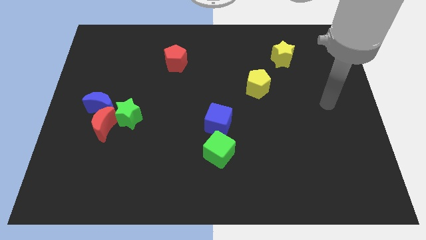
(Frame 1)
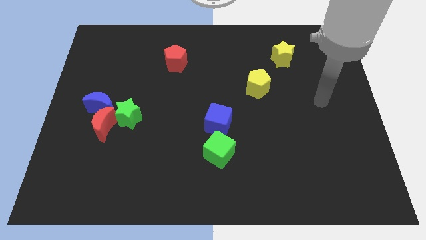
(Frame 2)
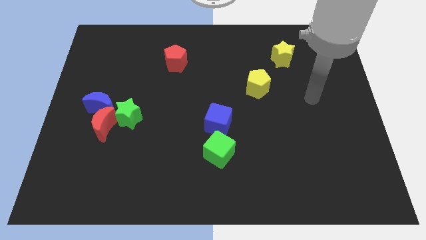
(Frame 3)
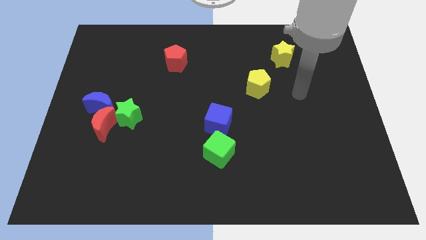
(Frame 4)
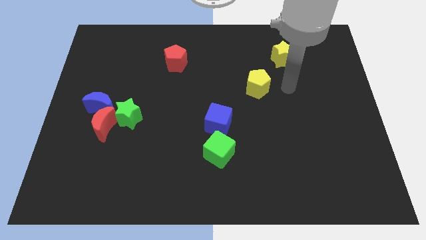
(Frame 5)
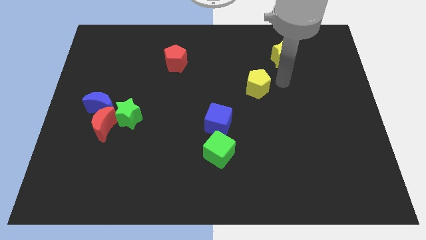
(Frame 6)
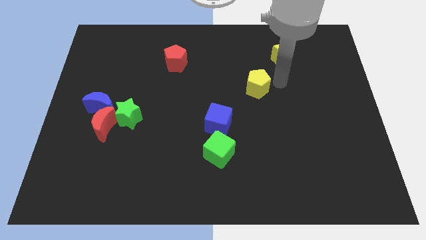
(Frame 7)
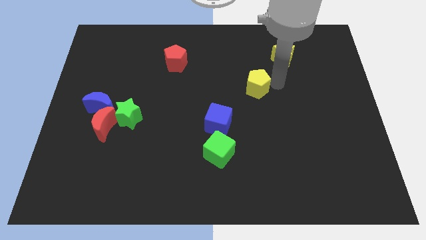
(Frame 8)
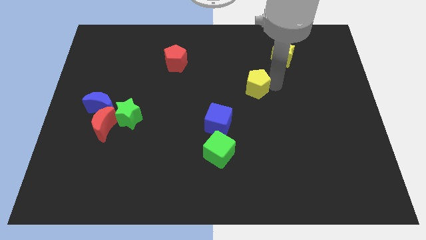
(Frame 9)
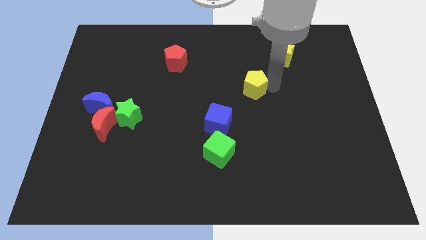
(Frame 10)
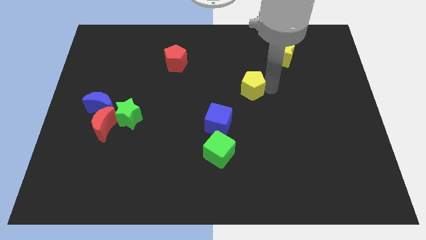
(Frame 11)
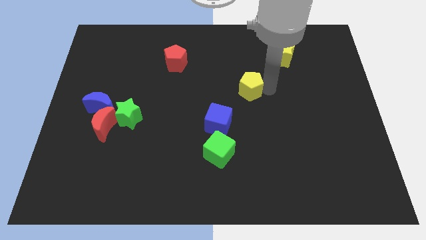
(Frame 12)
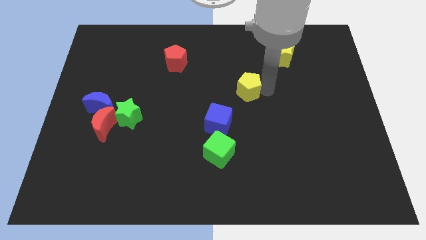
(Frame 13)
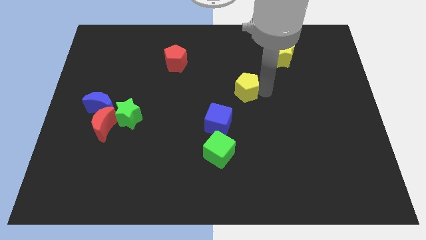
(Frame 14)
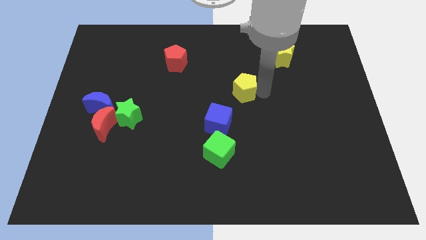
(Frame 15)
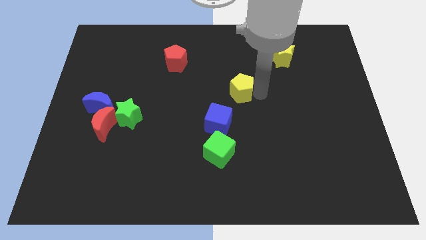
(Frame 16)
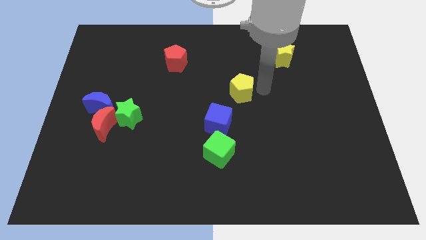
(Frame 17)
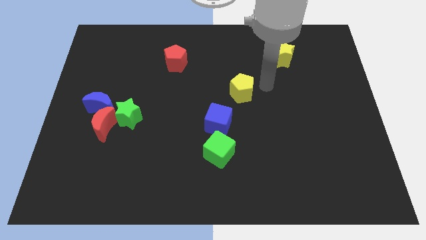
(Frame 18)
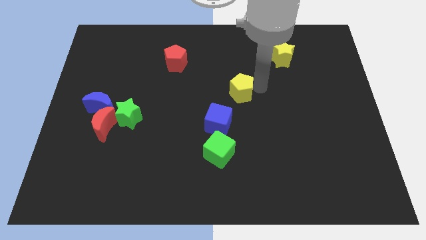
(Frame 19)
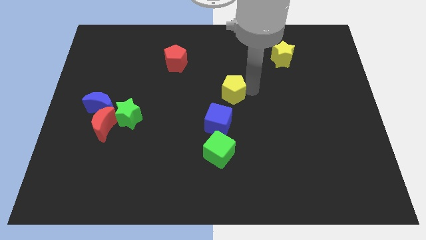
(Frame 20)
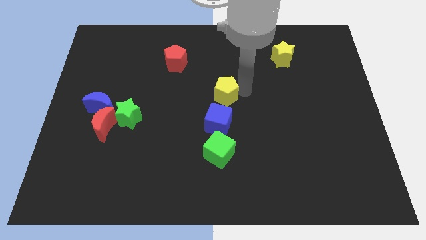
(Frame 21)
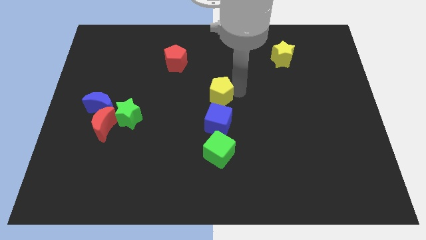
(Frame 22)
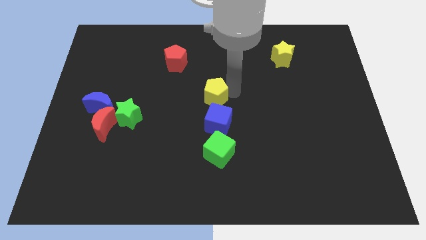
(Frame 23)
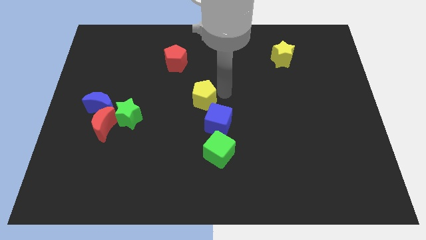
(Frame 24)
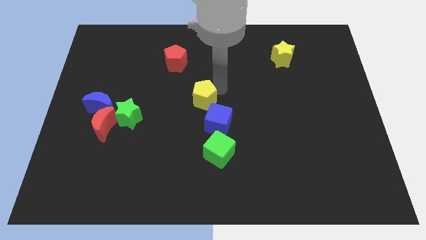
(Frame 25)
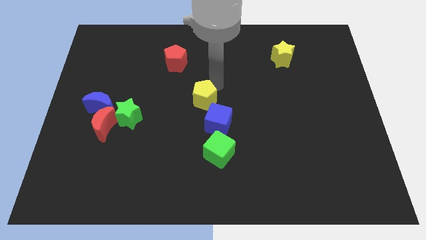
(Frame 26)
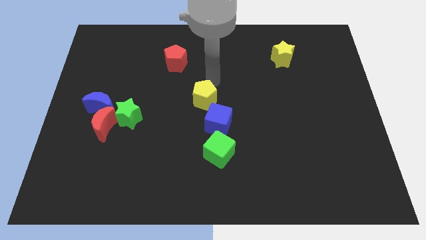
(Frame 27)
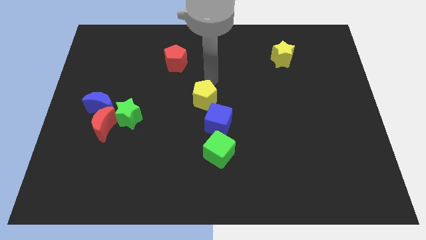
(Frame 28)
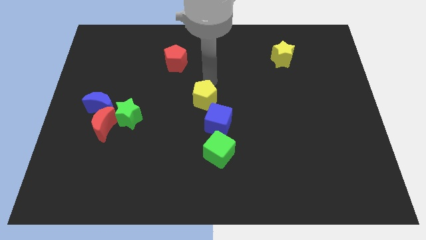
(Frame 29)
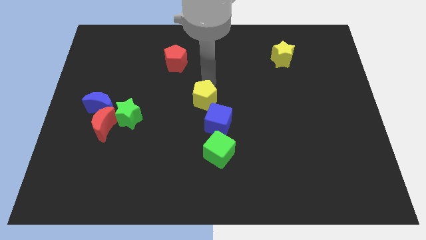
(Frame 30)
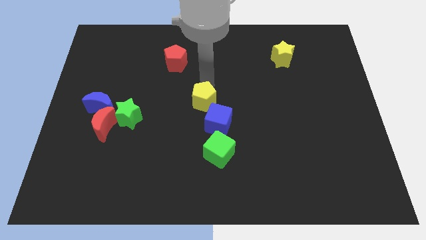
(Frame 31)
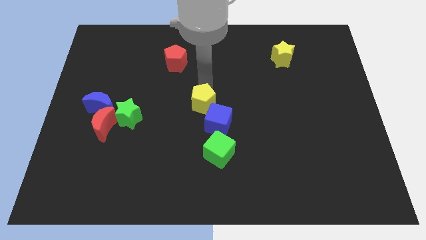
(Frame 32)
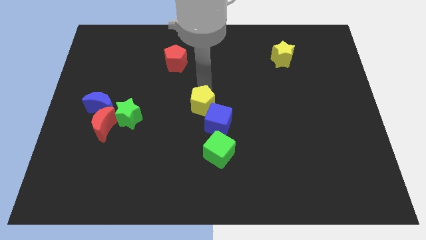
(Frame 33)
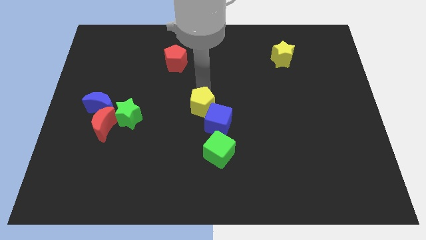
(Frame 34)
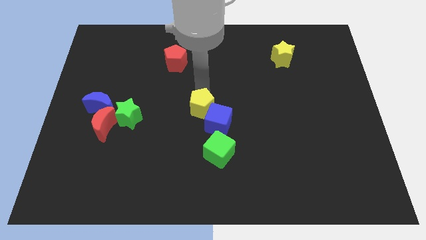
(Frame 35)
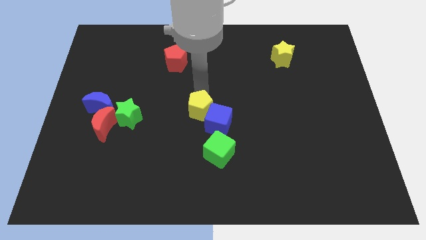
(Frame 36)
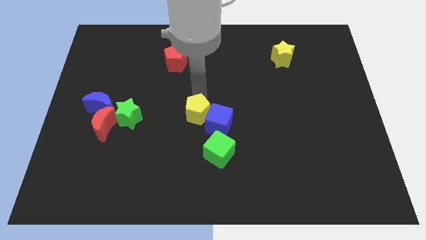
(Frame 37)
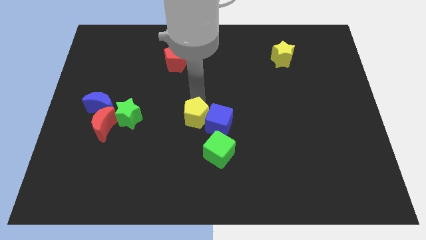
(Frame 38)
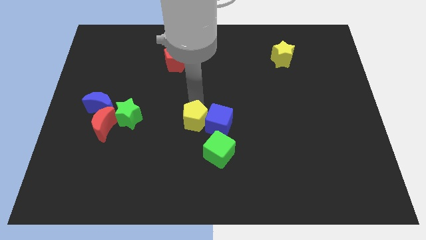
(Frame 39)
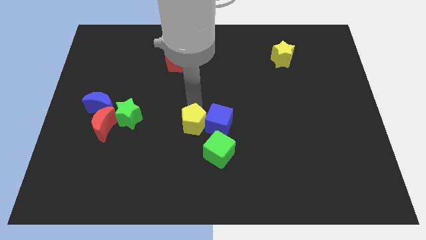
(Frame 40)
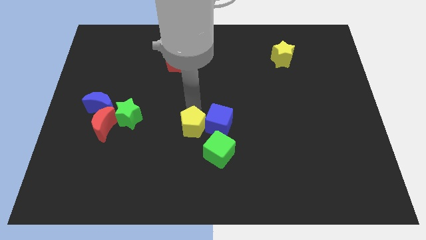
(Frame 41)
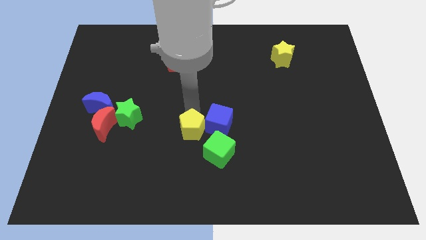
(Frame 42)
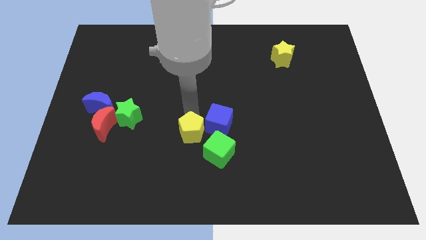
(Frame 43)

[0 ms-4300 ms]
push the yellow pentagon down and left diagonally

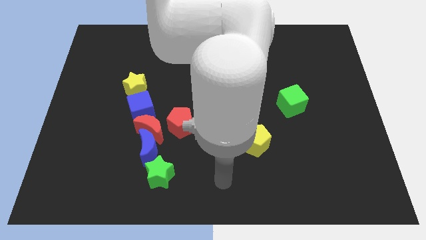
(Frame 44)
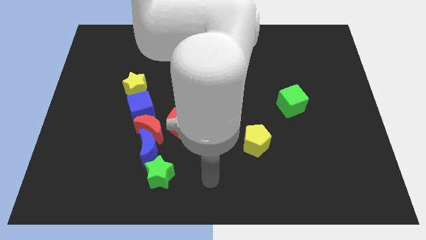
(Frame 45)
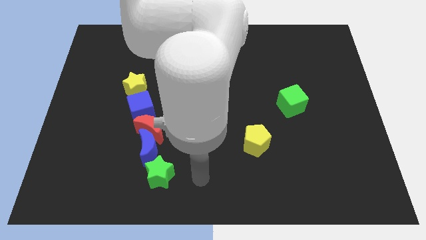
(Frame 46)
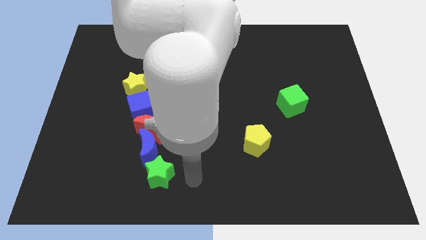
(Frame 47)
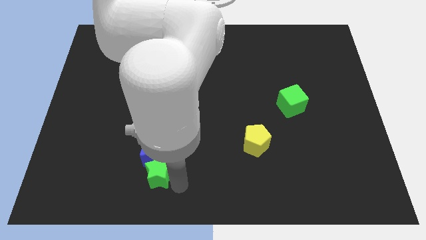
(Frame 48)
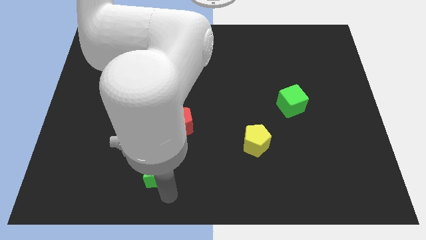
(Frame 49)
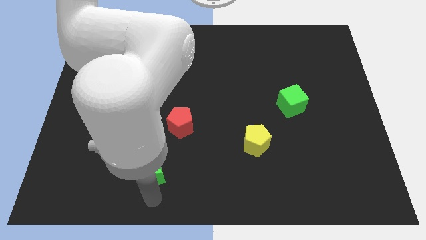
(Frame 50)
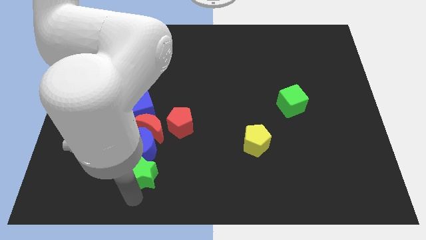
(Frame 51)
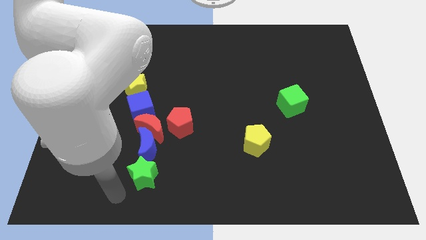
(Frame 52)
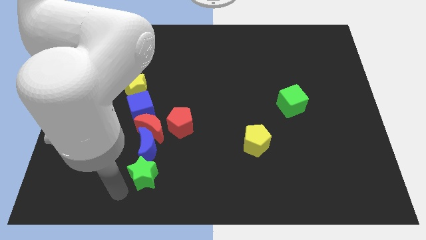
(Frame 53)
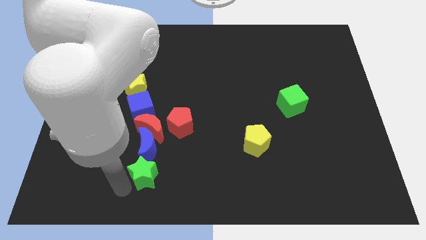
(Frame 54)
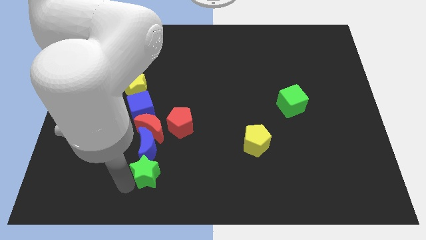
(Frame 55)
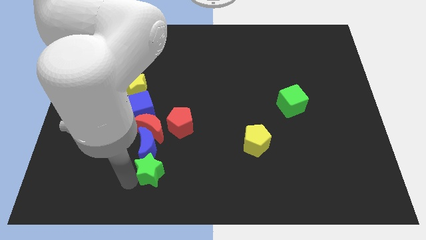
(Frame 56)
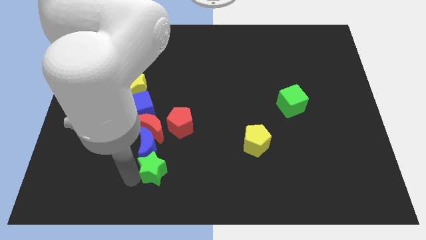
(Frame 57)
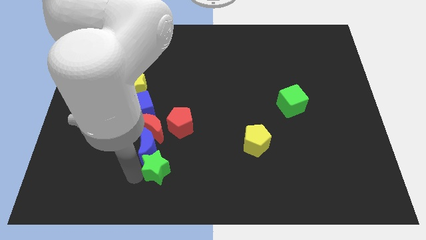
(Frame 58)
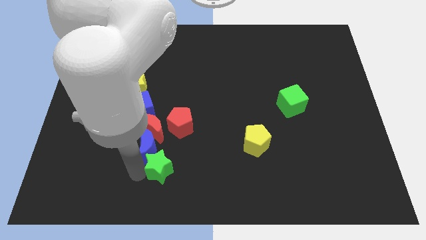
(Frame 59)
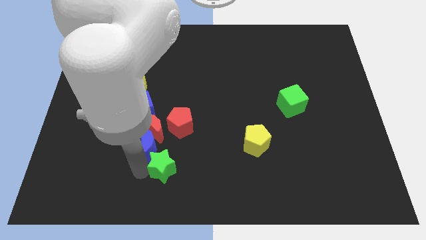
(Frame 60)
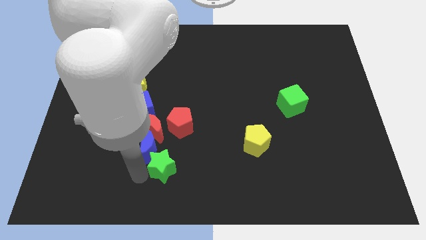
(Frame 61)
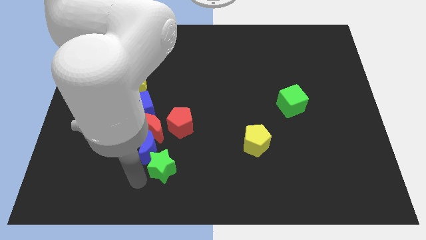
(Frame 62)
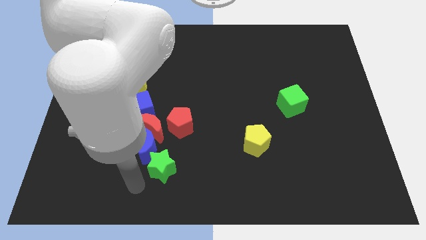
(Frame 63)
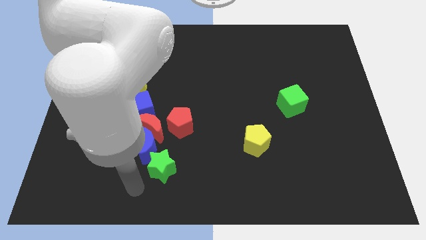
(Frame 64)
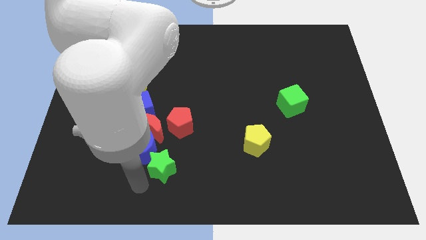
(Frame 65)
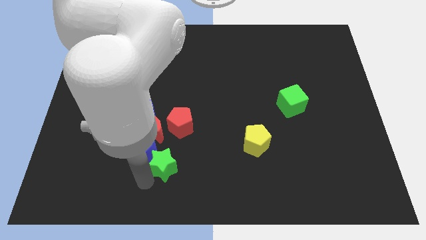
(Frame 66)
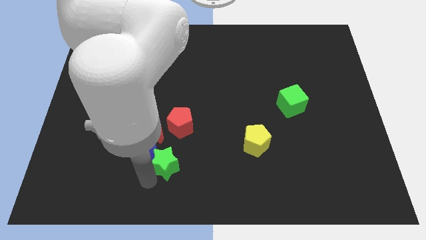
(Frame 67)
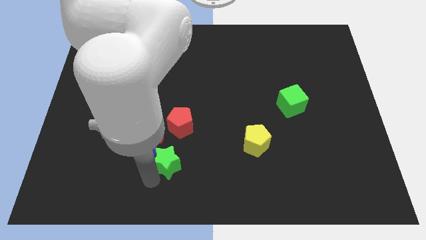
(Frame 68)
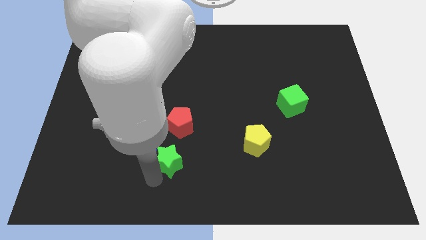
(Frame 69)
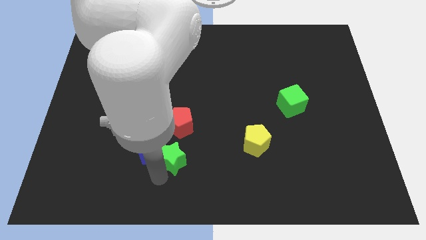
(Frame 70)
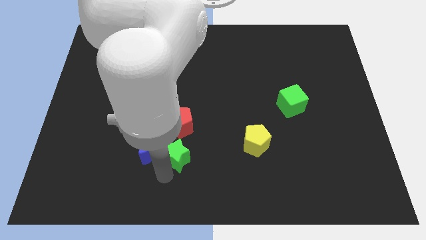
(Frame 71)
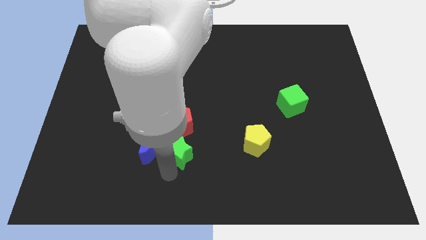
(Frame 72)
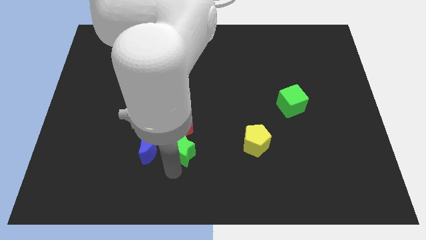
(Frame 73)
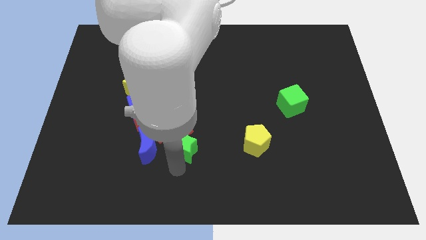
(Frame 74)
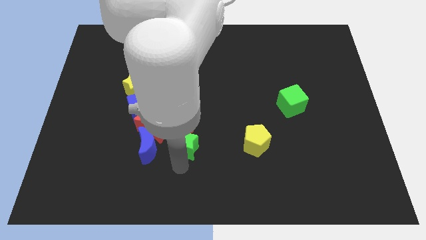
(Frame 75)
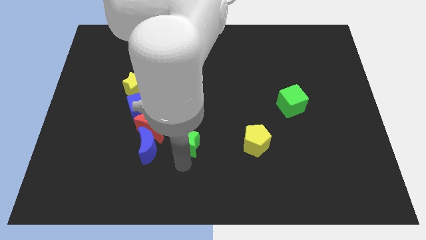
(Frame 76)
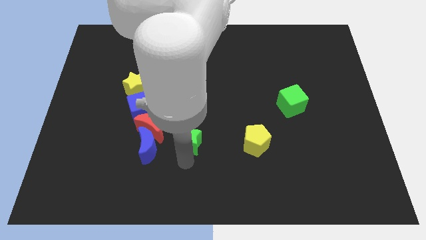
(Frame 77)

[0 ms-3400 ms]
move the green star up somewhat

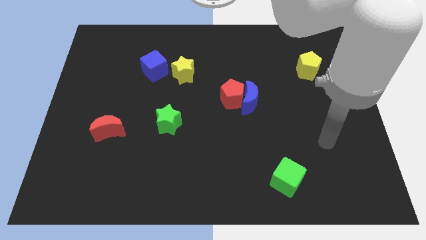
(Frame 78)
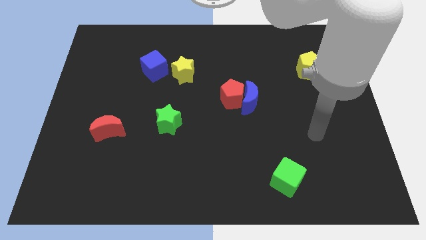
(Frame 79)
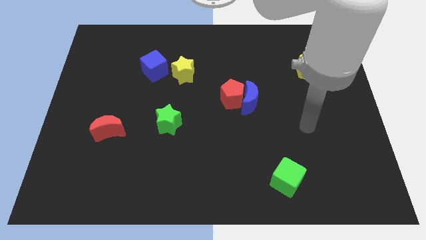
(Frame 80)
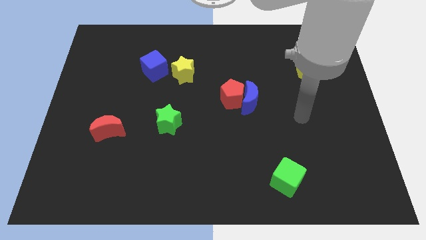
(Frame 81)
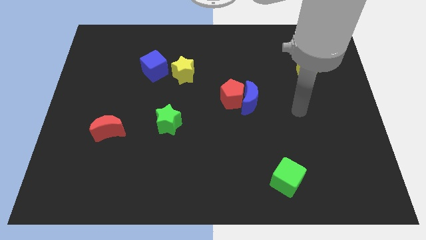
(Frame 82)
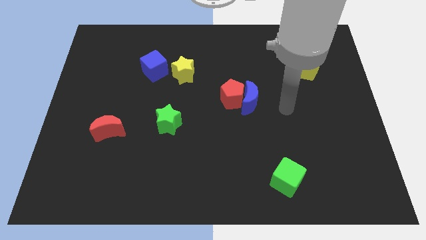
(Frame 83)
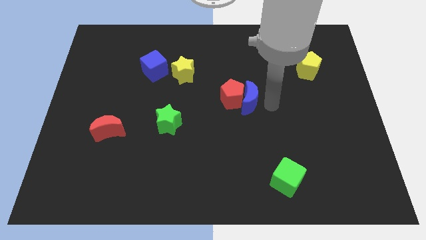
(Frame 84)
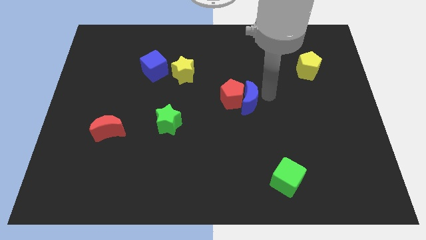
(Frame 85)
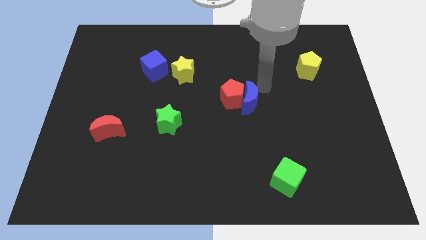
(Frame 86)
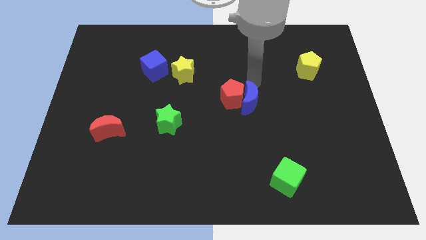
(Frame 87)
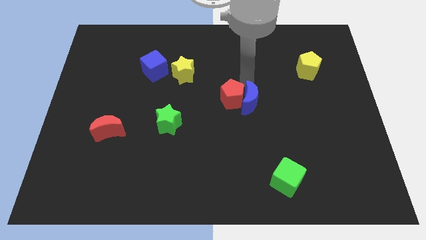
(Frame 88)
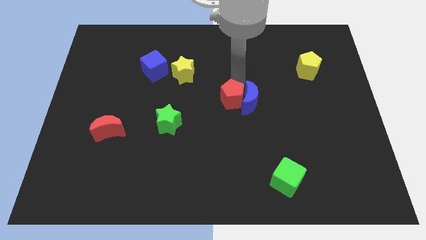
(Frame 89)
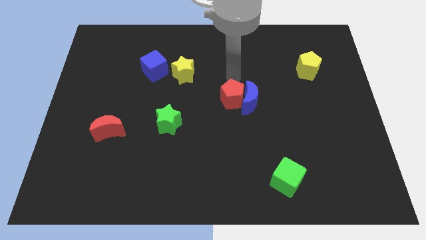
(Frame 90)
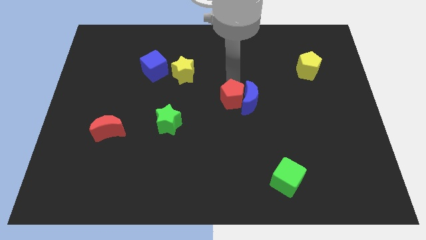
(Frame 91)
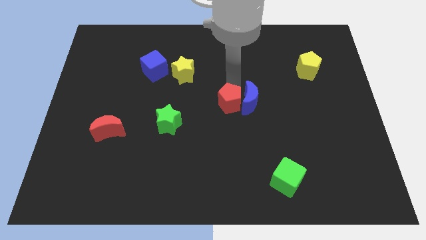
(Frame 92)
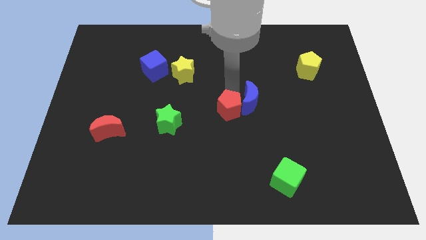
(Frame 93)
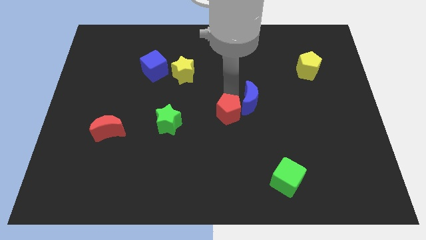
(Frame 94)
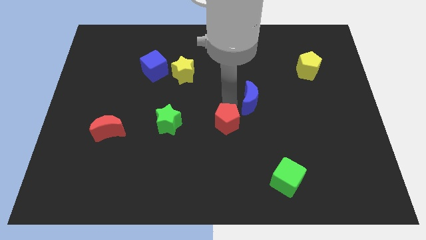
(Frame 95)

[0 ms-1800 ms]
slightly move the red pentagon downwards
